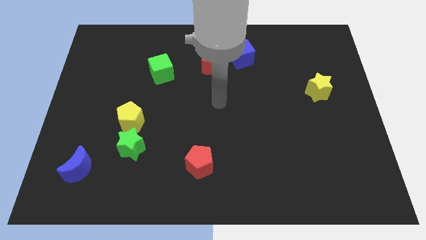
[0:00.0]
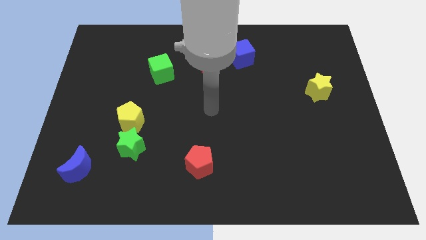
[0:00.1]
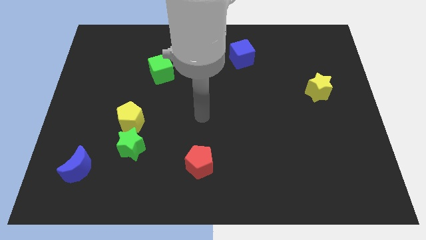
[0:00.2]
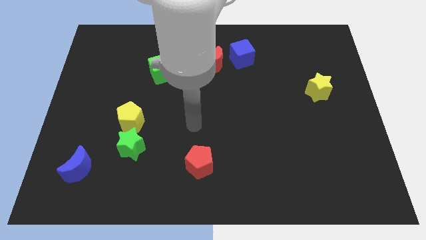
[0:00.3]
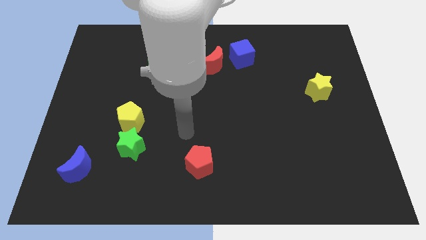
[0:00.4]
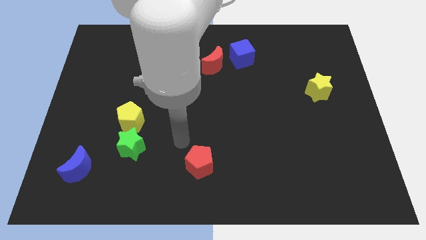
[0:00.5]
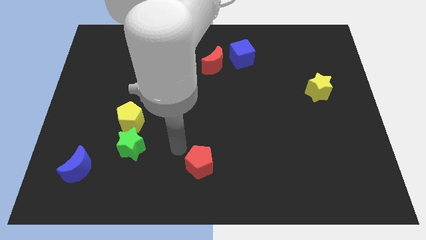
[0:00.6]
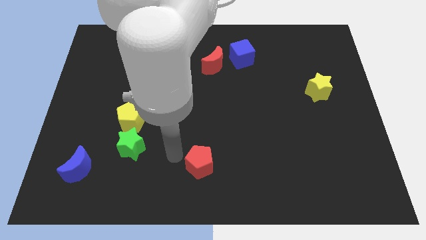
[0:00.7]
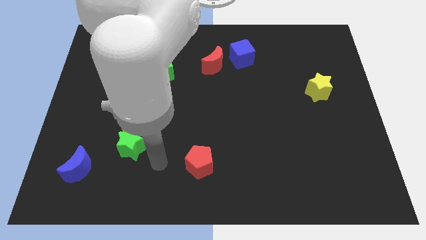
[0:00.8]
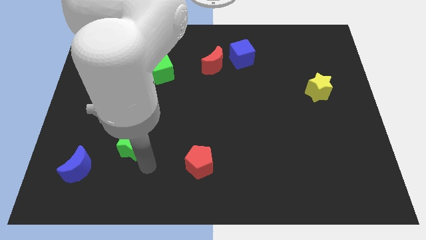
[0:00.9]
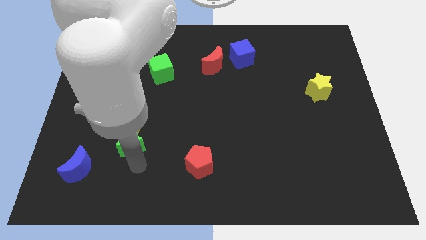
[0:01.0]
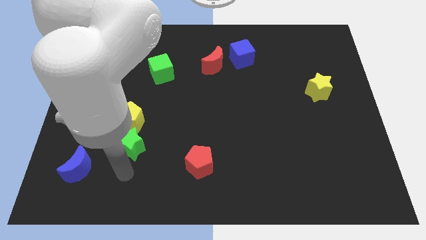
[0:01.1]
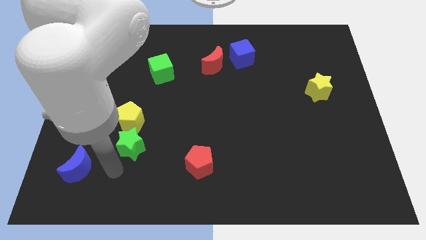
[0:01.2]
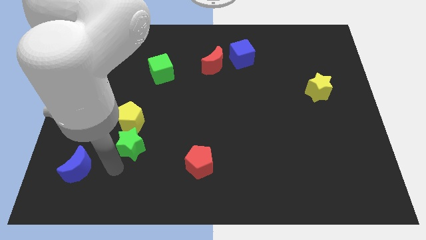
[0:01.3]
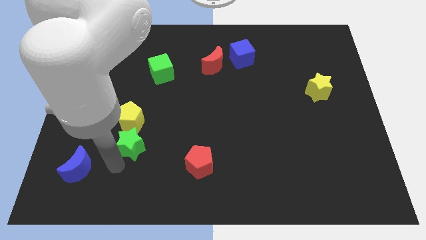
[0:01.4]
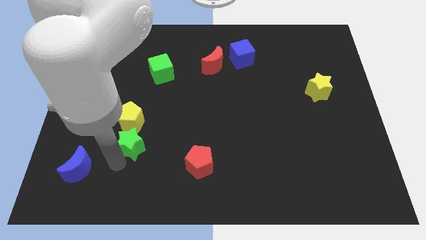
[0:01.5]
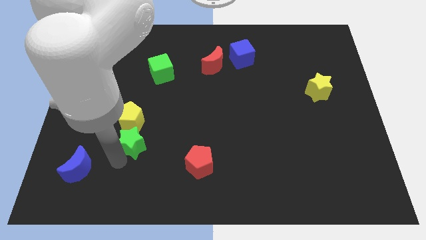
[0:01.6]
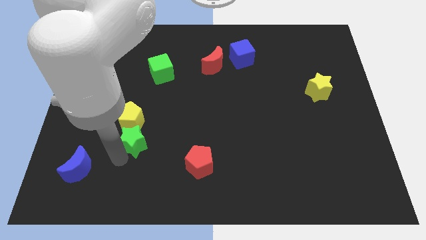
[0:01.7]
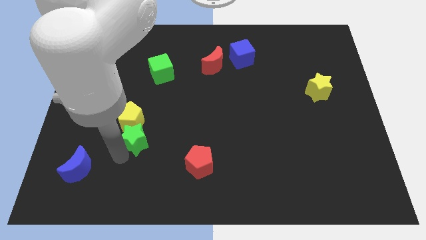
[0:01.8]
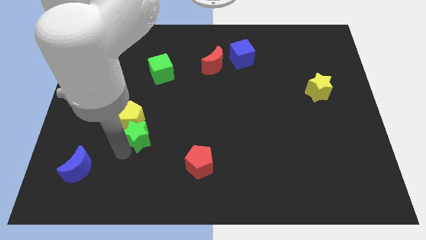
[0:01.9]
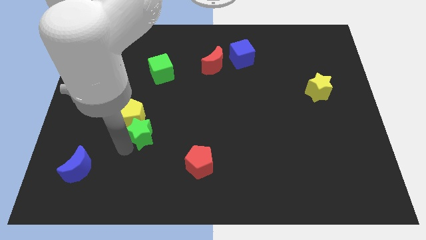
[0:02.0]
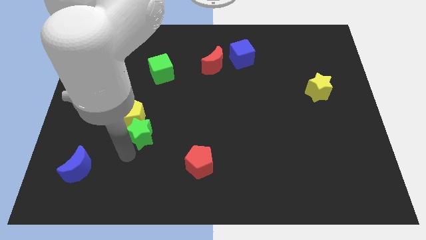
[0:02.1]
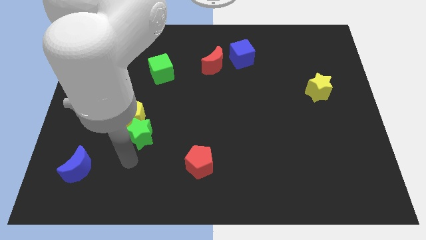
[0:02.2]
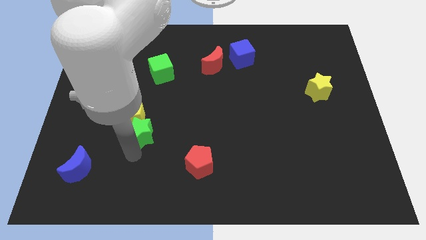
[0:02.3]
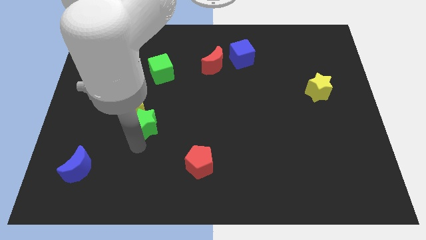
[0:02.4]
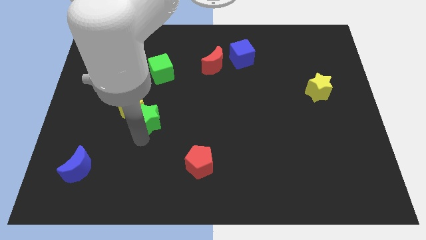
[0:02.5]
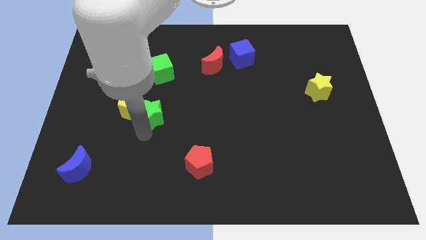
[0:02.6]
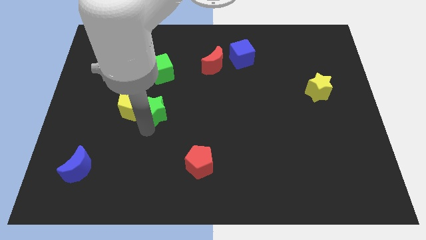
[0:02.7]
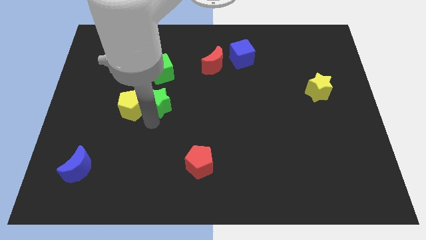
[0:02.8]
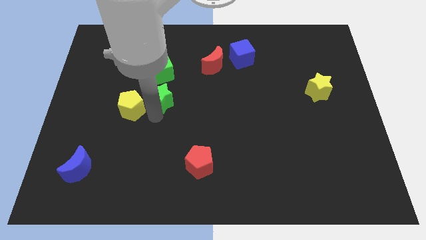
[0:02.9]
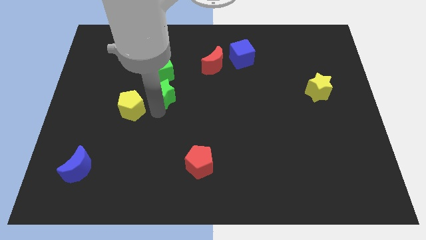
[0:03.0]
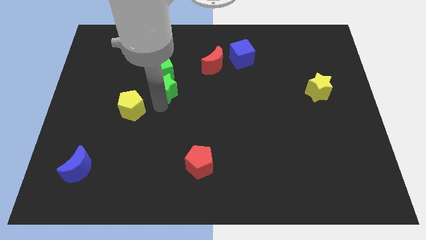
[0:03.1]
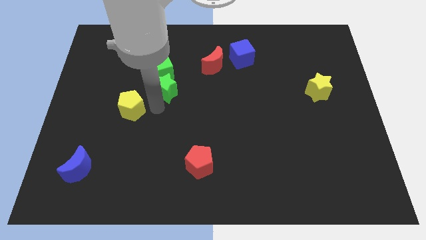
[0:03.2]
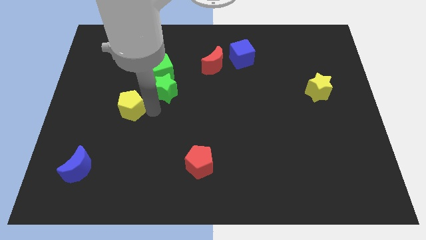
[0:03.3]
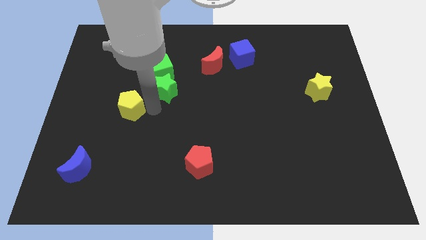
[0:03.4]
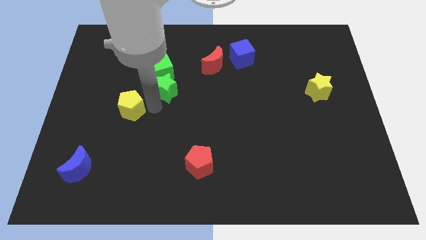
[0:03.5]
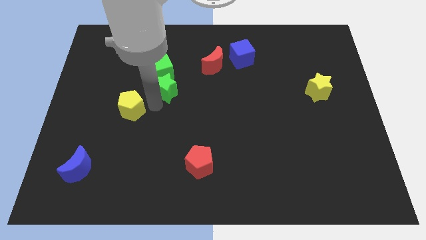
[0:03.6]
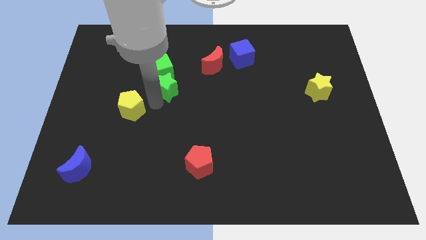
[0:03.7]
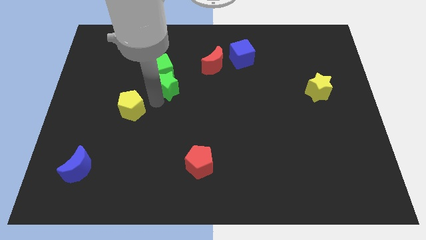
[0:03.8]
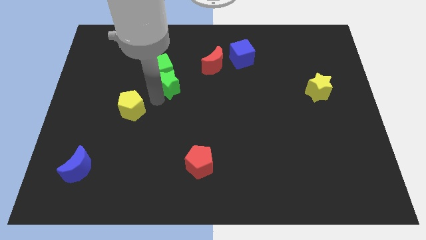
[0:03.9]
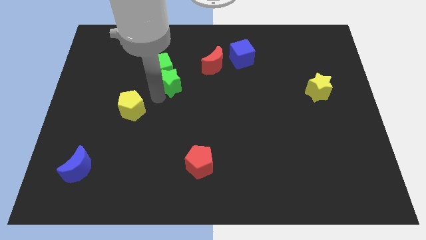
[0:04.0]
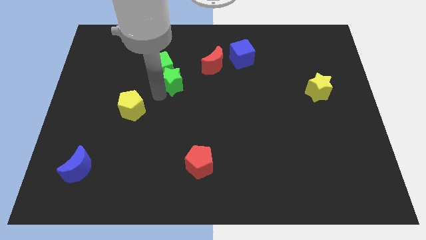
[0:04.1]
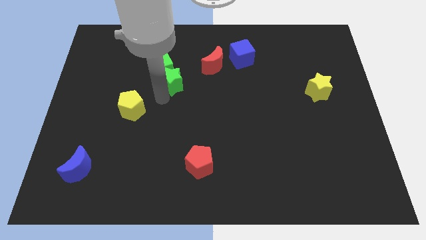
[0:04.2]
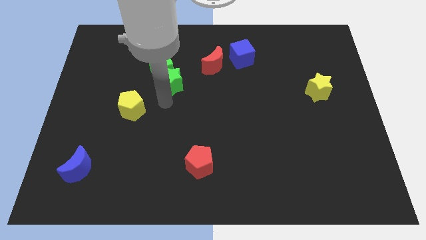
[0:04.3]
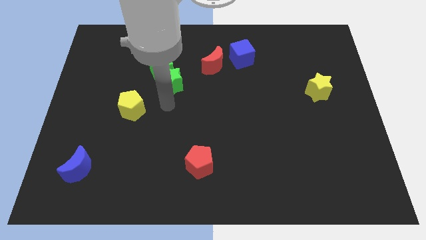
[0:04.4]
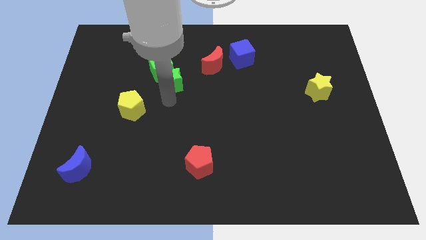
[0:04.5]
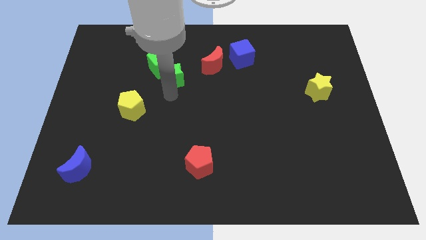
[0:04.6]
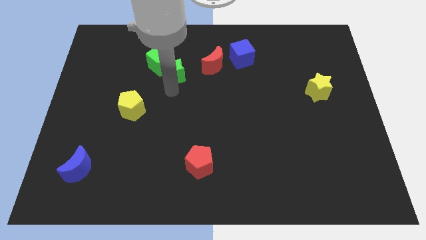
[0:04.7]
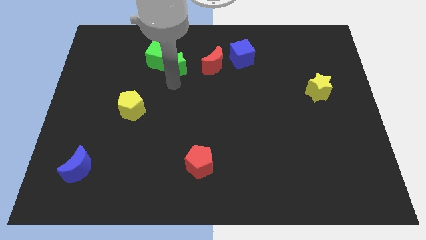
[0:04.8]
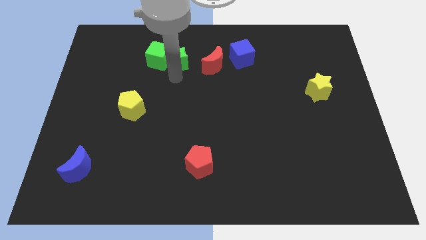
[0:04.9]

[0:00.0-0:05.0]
slide the green star to the top right of the green cube
